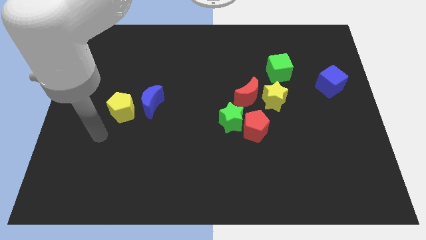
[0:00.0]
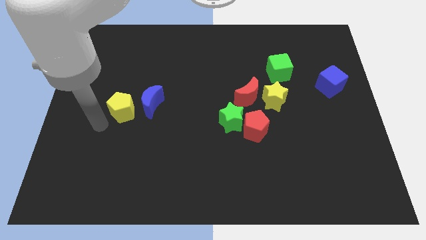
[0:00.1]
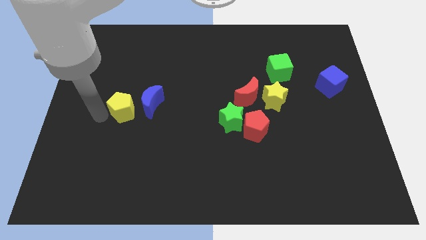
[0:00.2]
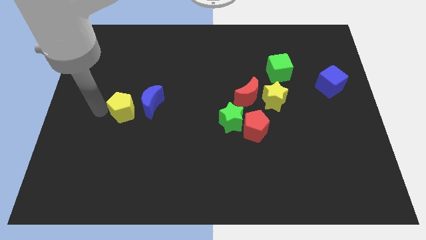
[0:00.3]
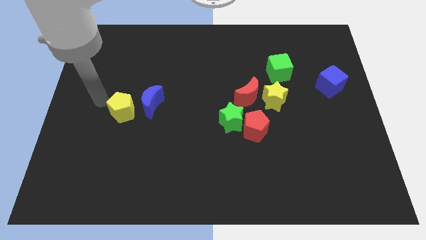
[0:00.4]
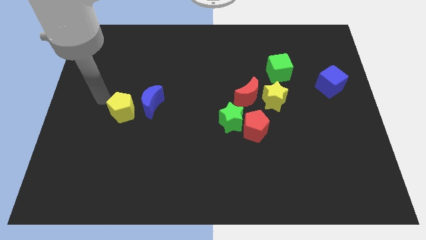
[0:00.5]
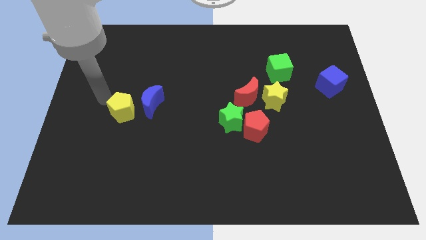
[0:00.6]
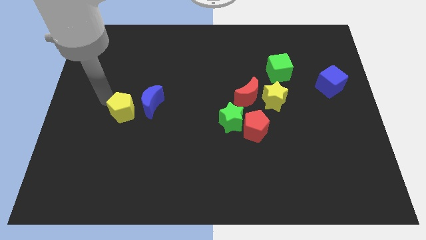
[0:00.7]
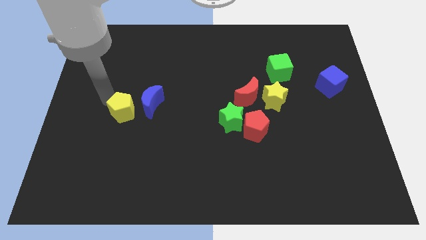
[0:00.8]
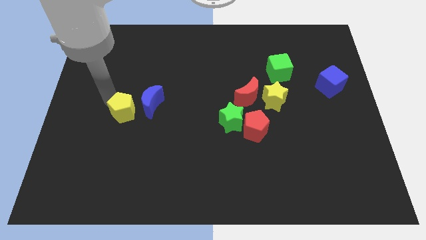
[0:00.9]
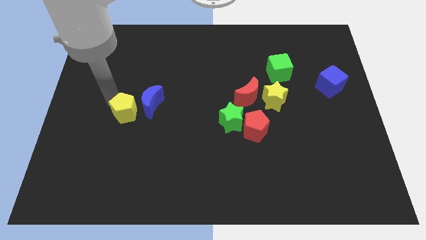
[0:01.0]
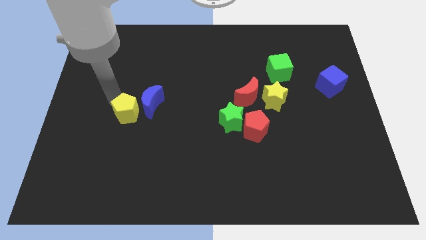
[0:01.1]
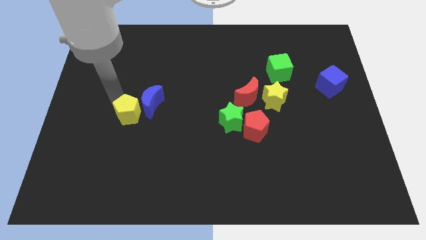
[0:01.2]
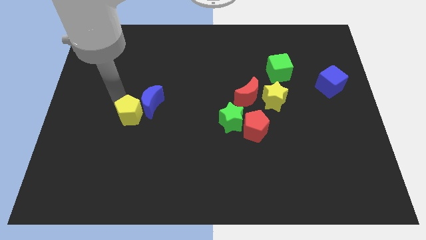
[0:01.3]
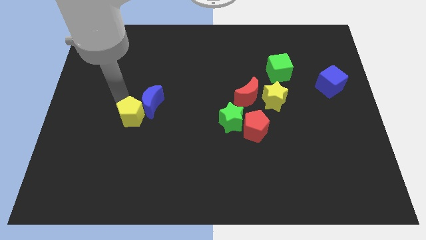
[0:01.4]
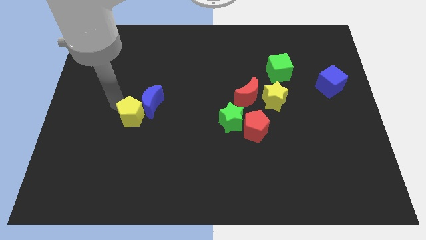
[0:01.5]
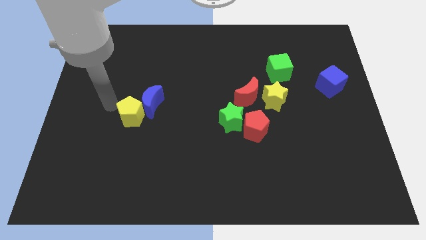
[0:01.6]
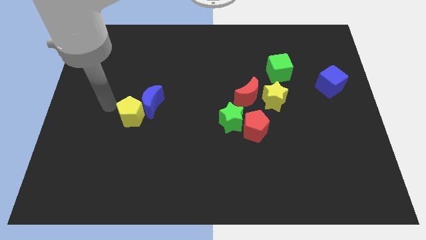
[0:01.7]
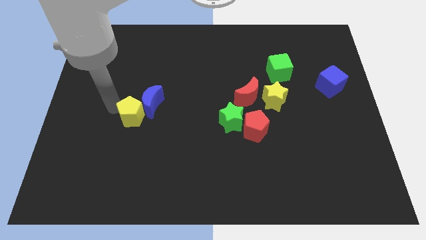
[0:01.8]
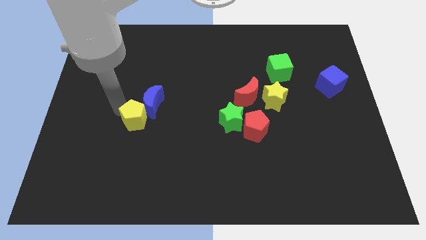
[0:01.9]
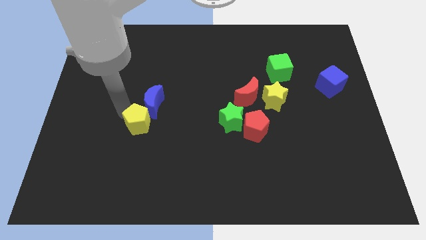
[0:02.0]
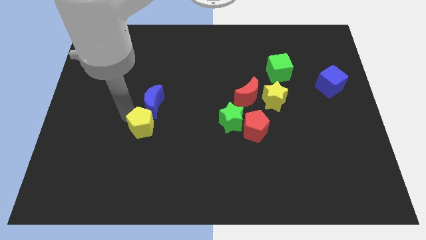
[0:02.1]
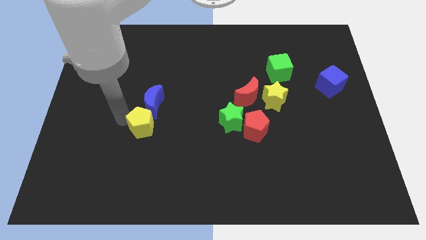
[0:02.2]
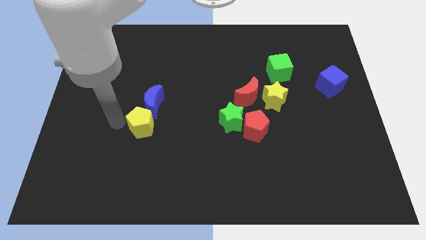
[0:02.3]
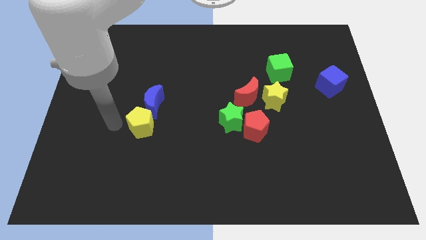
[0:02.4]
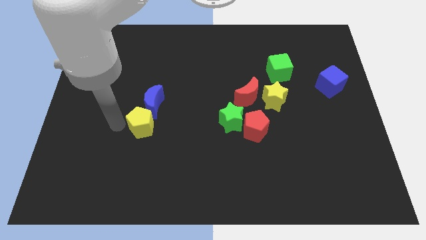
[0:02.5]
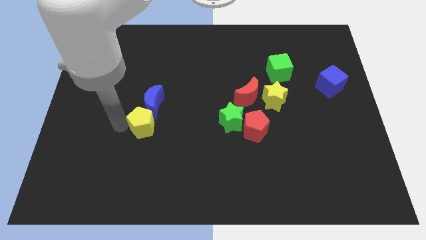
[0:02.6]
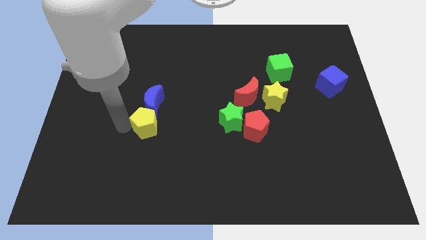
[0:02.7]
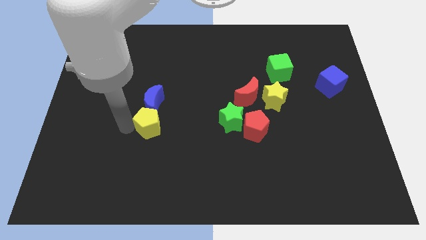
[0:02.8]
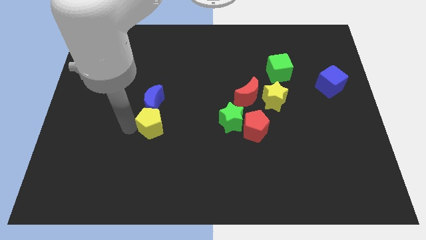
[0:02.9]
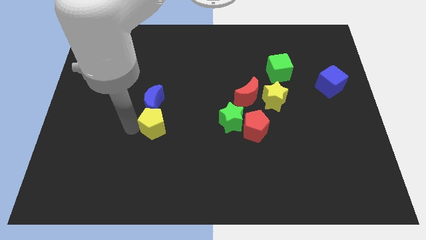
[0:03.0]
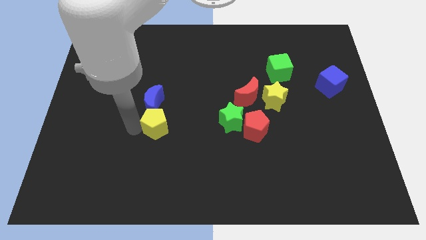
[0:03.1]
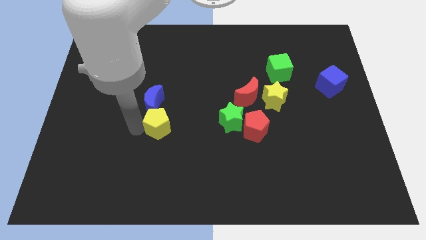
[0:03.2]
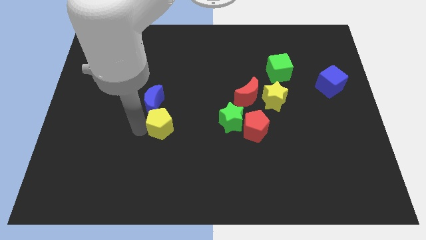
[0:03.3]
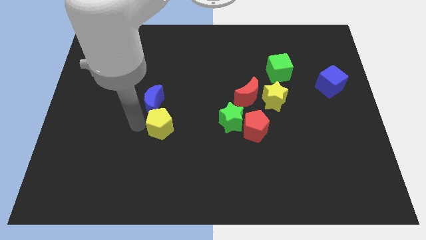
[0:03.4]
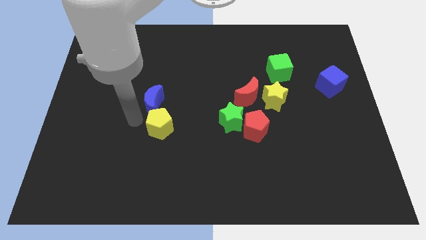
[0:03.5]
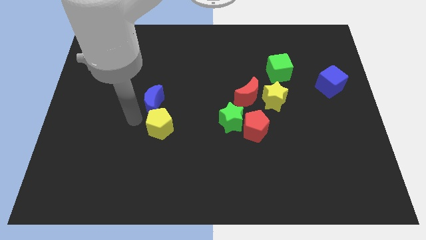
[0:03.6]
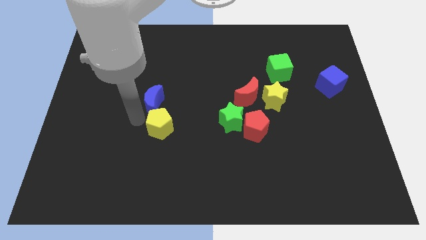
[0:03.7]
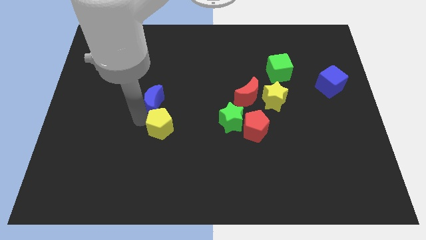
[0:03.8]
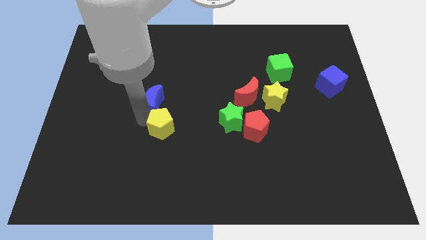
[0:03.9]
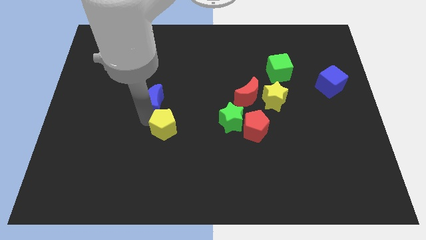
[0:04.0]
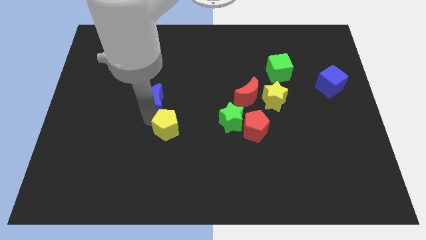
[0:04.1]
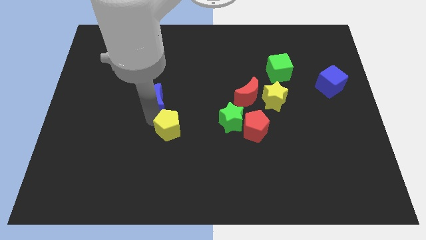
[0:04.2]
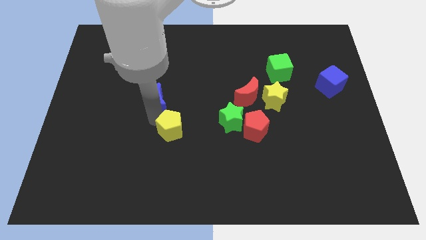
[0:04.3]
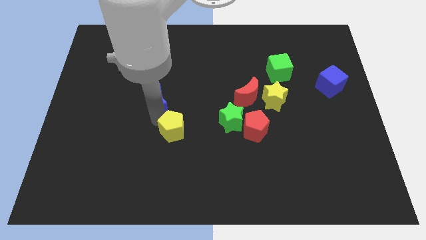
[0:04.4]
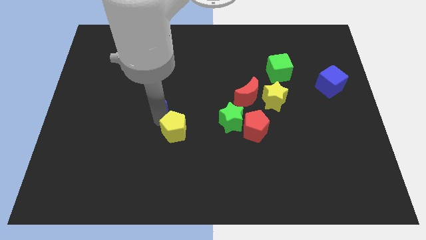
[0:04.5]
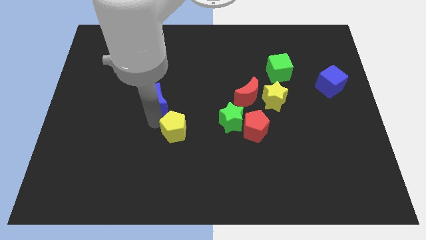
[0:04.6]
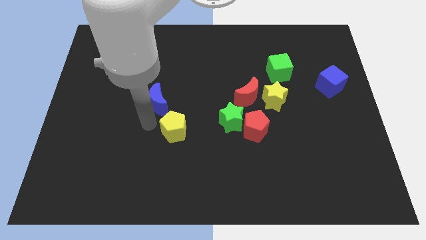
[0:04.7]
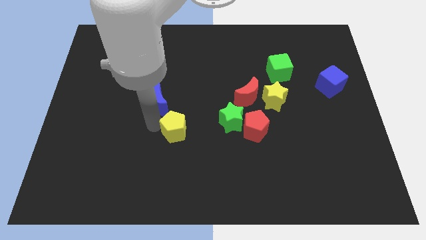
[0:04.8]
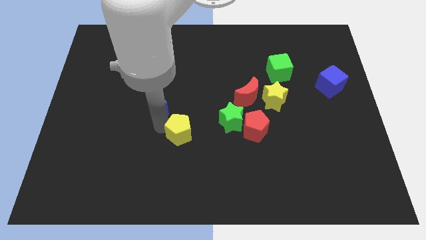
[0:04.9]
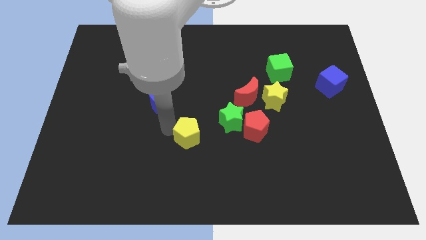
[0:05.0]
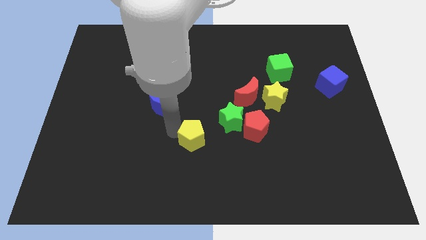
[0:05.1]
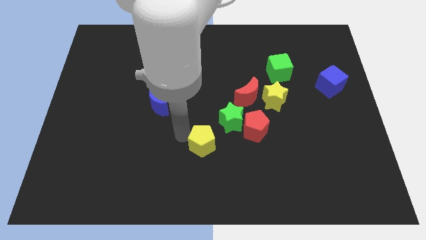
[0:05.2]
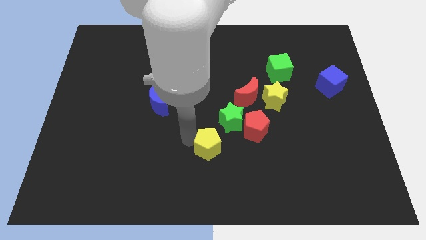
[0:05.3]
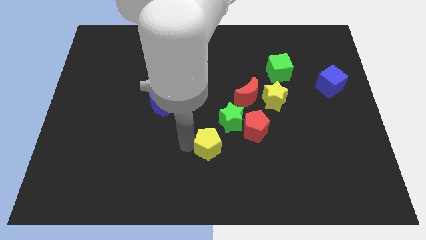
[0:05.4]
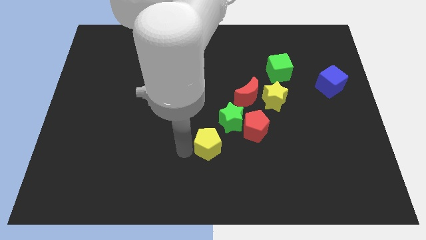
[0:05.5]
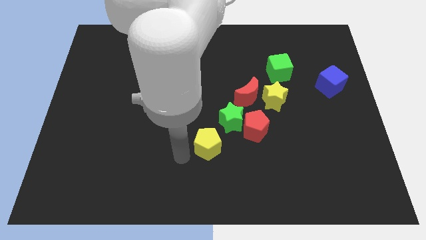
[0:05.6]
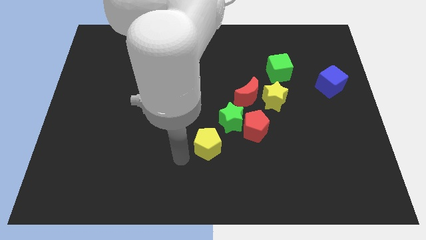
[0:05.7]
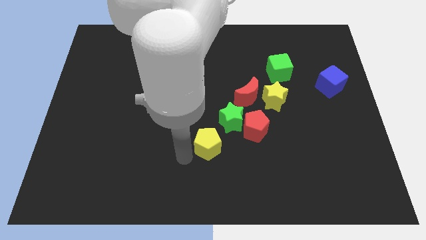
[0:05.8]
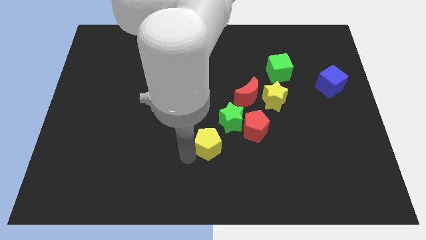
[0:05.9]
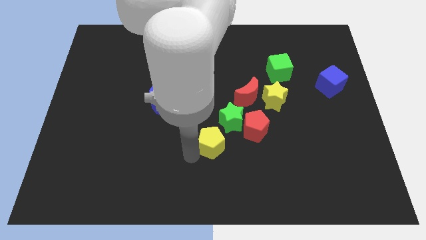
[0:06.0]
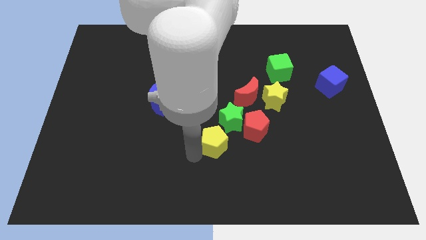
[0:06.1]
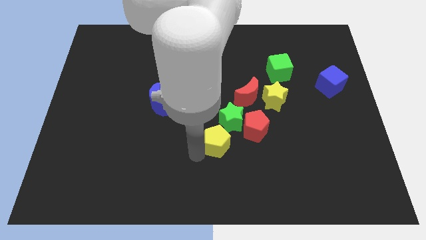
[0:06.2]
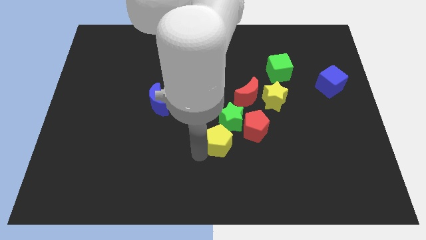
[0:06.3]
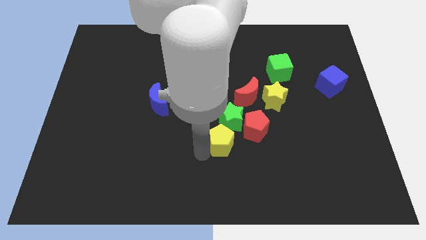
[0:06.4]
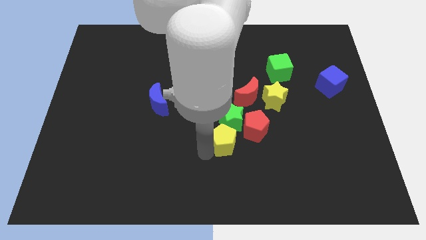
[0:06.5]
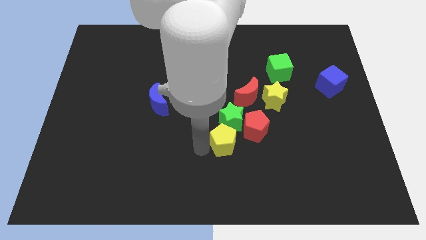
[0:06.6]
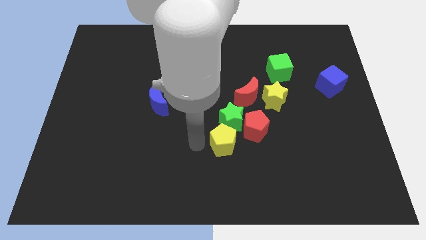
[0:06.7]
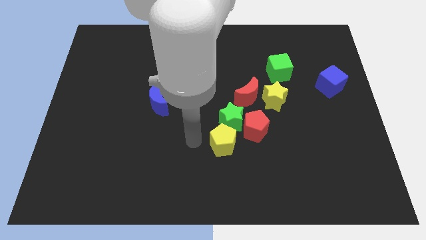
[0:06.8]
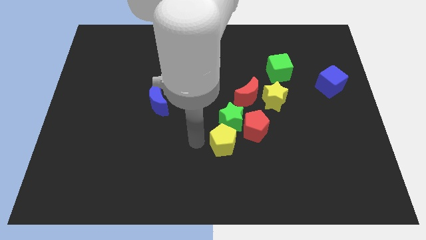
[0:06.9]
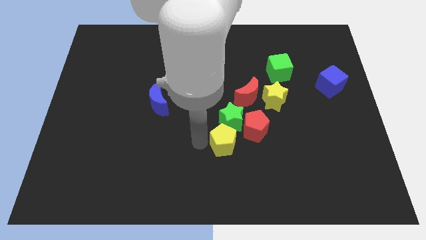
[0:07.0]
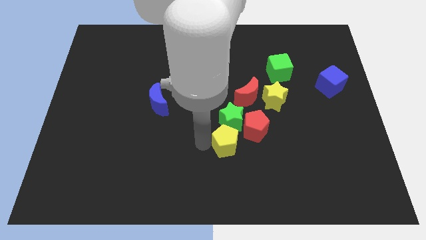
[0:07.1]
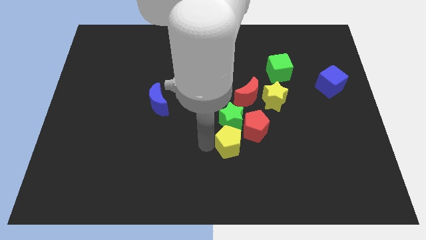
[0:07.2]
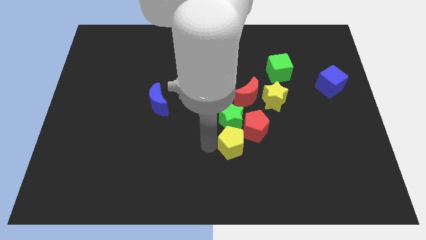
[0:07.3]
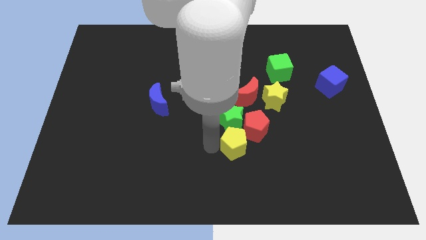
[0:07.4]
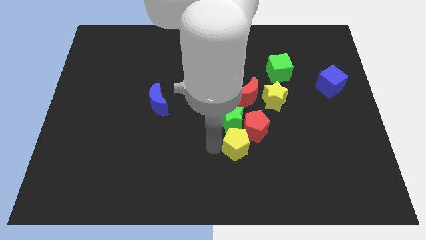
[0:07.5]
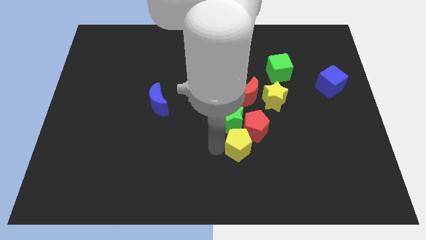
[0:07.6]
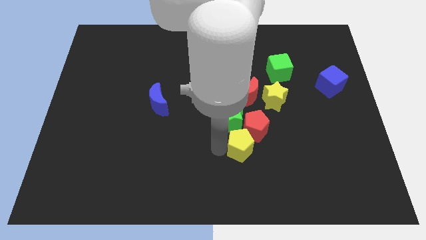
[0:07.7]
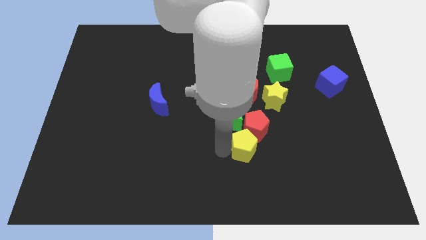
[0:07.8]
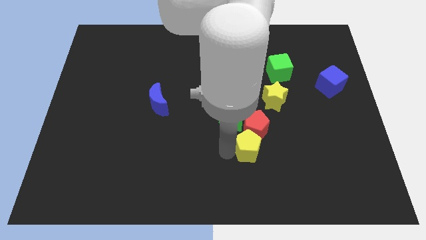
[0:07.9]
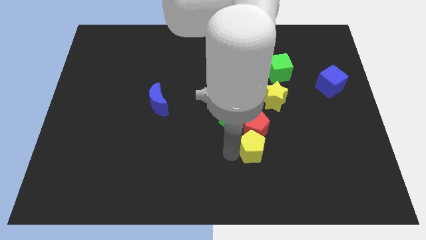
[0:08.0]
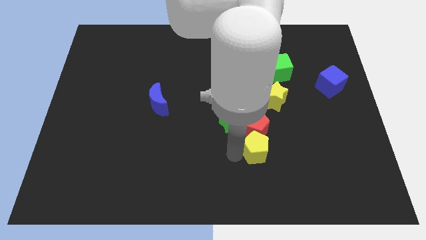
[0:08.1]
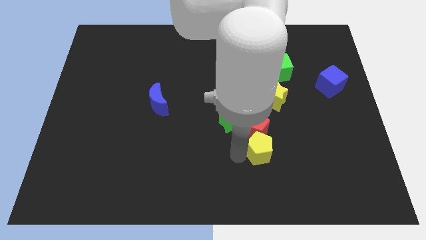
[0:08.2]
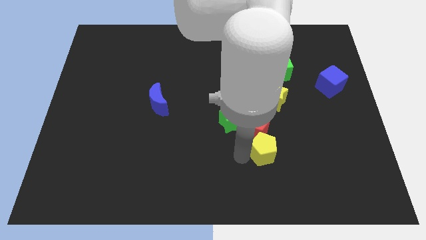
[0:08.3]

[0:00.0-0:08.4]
move the yellow pentagon to the bottom side of the yellow star
